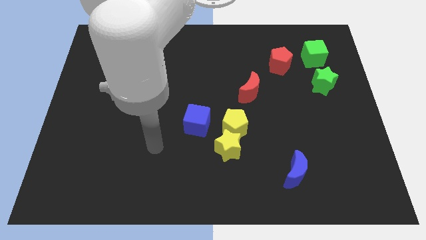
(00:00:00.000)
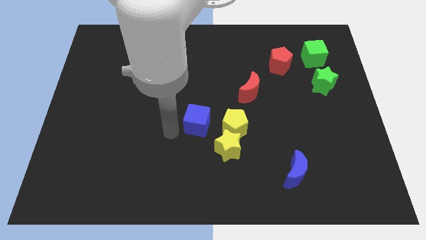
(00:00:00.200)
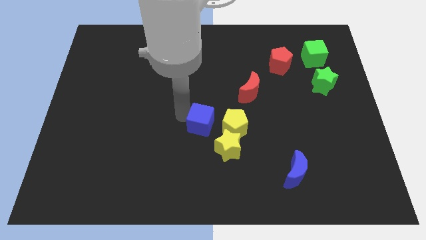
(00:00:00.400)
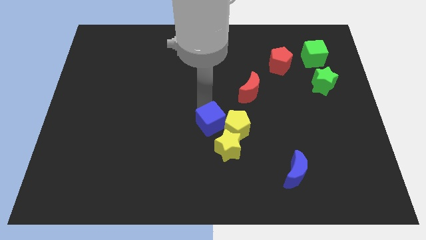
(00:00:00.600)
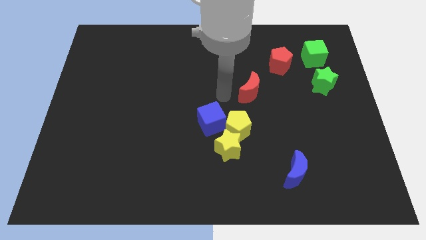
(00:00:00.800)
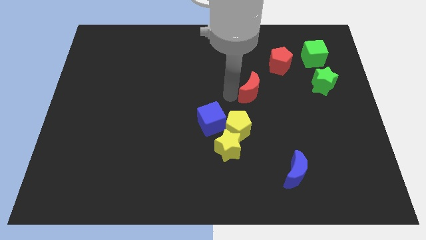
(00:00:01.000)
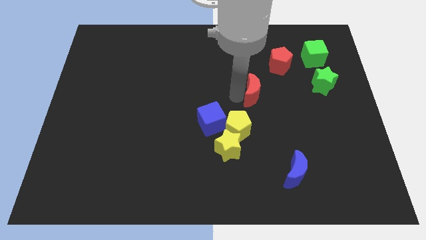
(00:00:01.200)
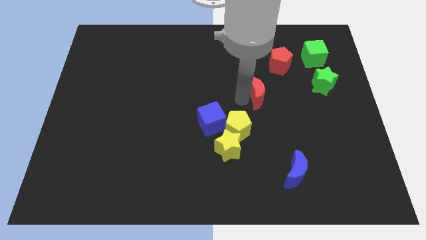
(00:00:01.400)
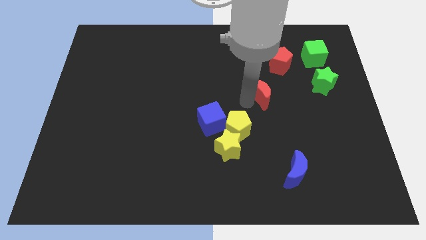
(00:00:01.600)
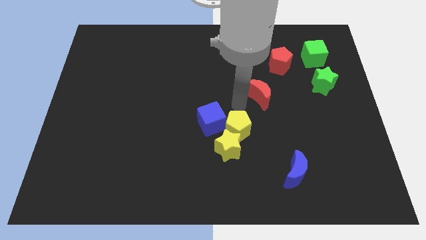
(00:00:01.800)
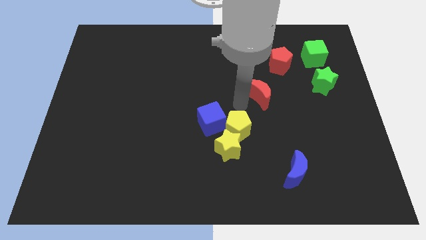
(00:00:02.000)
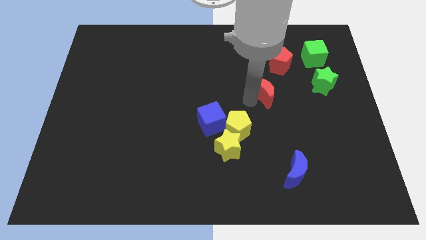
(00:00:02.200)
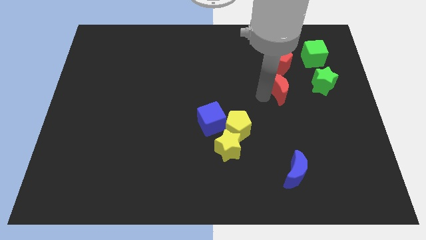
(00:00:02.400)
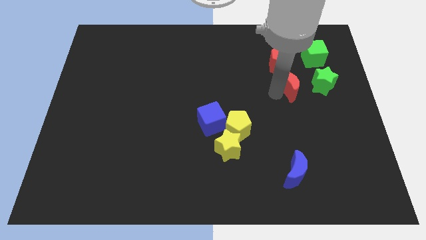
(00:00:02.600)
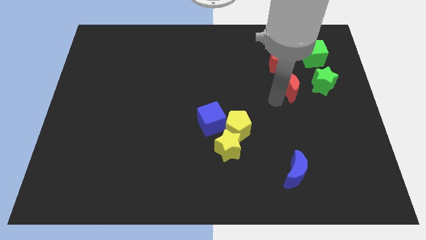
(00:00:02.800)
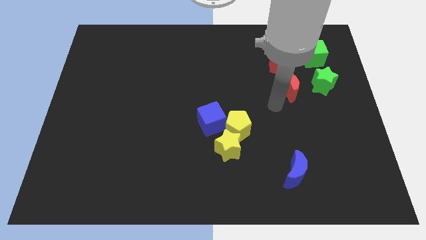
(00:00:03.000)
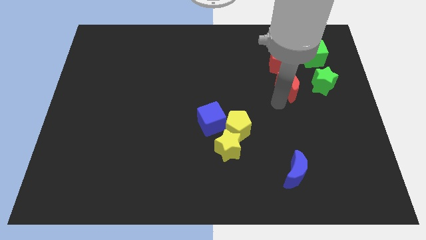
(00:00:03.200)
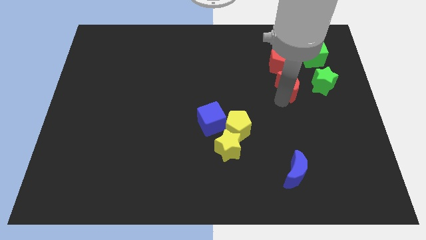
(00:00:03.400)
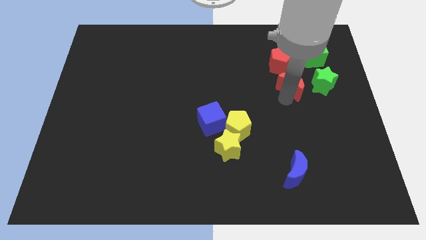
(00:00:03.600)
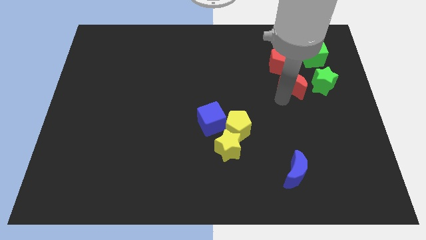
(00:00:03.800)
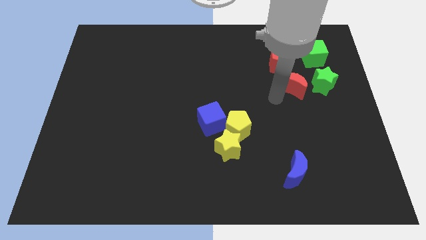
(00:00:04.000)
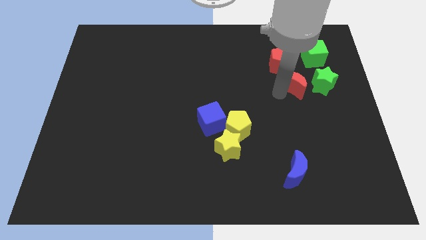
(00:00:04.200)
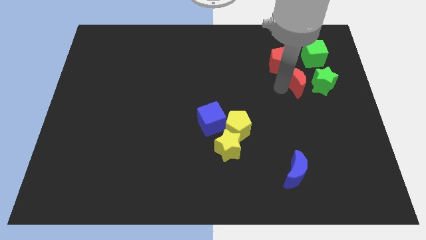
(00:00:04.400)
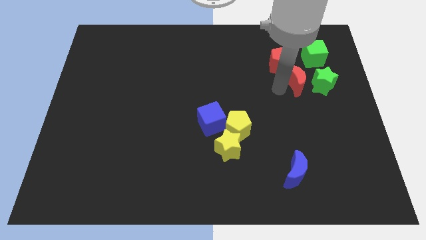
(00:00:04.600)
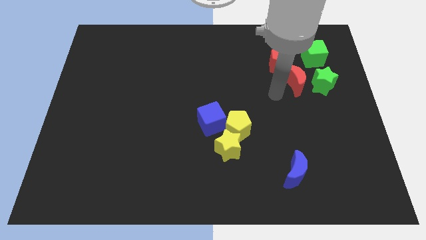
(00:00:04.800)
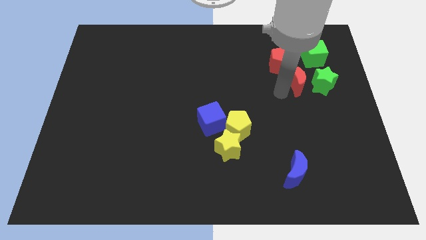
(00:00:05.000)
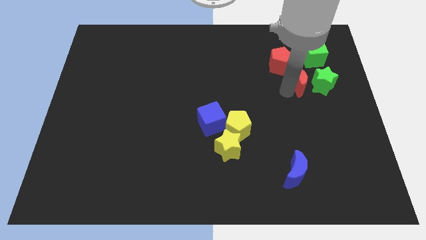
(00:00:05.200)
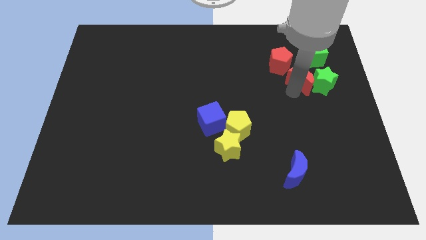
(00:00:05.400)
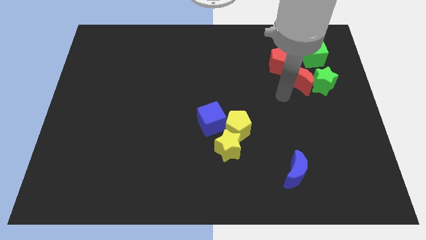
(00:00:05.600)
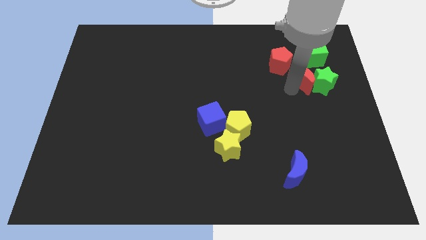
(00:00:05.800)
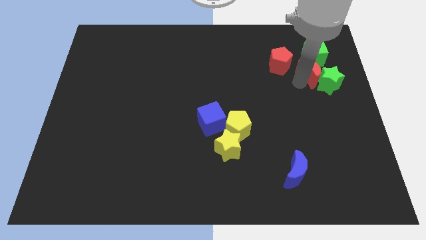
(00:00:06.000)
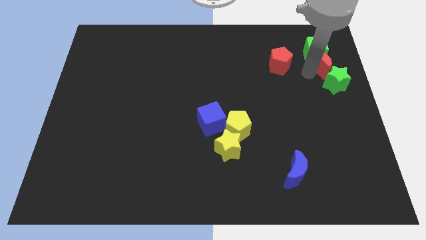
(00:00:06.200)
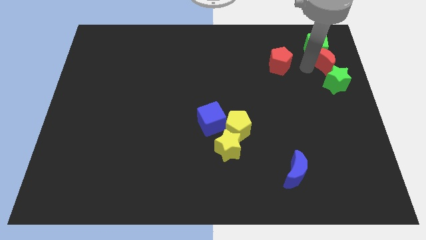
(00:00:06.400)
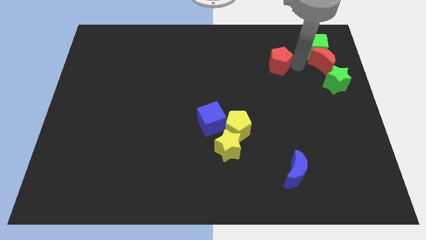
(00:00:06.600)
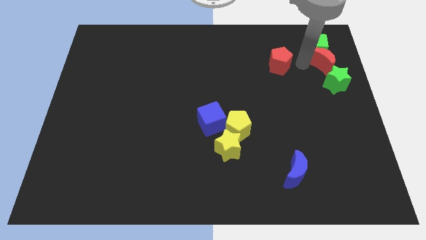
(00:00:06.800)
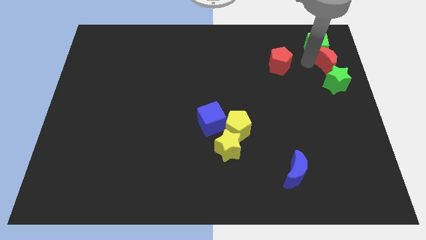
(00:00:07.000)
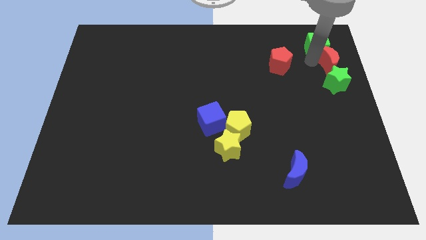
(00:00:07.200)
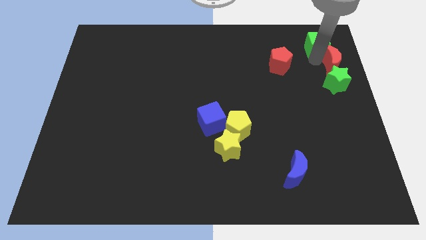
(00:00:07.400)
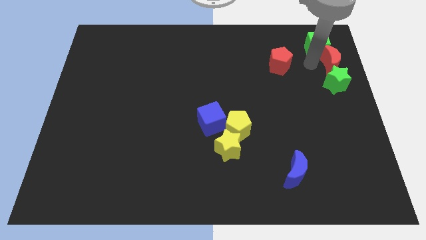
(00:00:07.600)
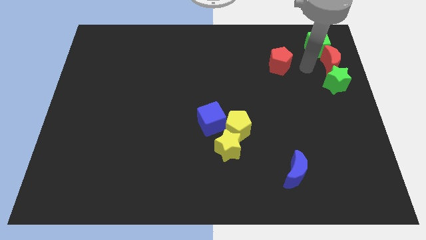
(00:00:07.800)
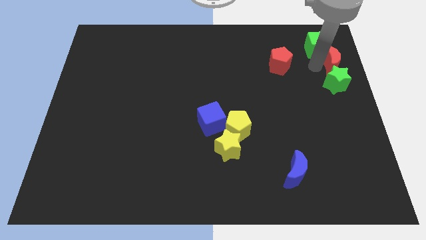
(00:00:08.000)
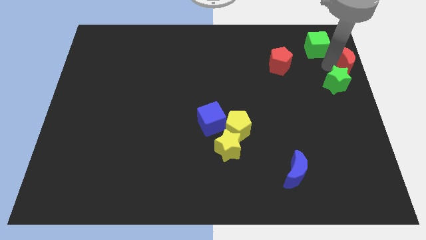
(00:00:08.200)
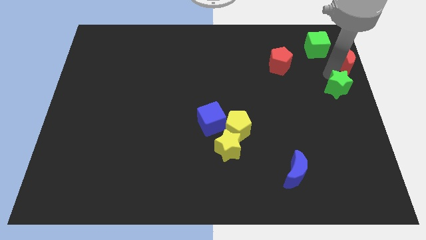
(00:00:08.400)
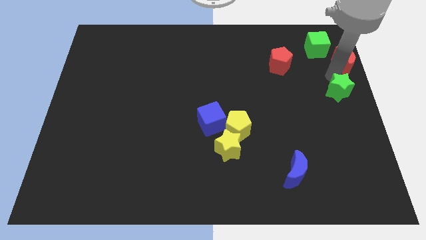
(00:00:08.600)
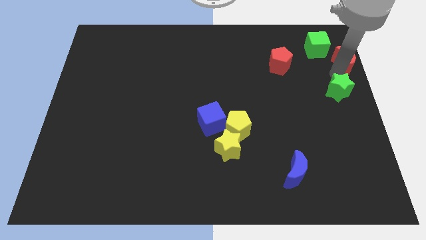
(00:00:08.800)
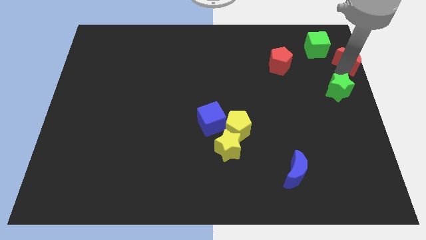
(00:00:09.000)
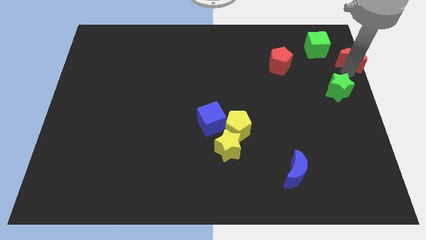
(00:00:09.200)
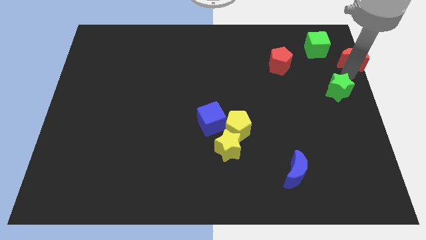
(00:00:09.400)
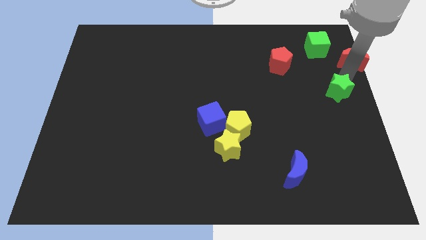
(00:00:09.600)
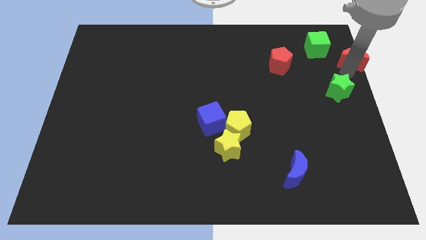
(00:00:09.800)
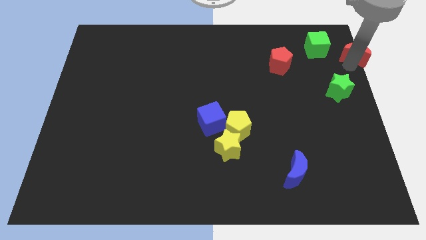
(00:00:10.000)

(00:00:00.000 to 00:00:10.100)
push the red moon to the top right corner

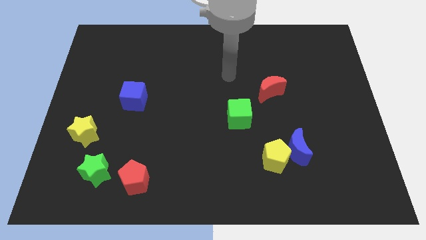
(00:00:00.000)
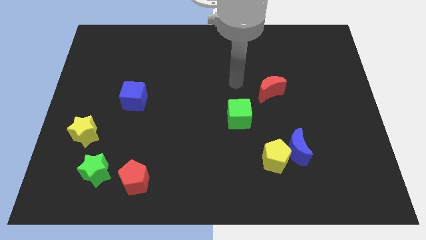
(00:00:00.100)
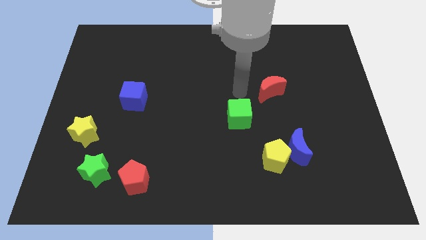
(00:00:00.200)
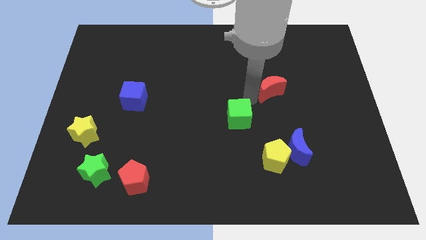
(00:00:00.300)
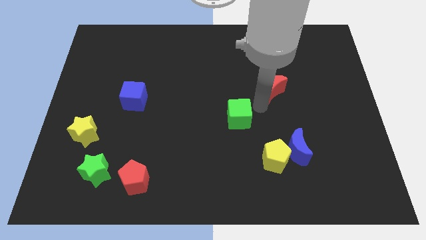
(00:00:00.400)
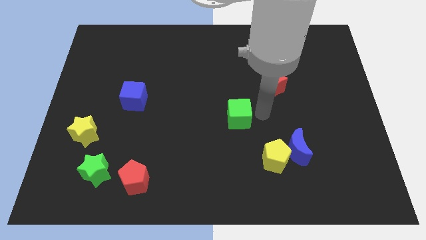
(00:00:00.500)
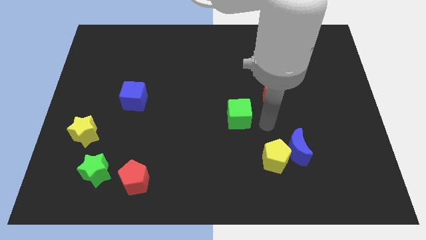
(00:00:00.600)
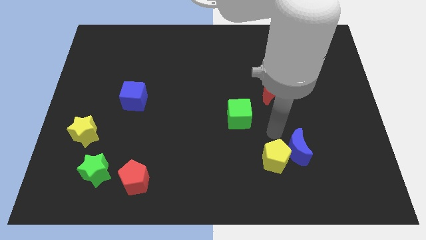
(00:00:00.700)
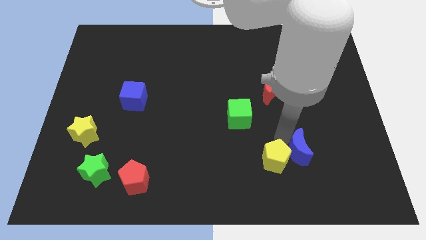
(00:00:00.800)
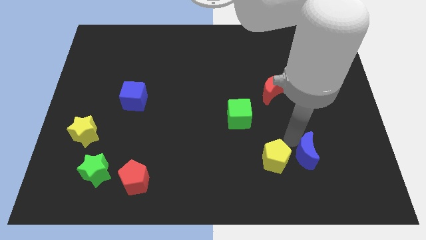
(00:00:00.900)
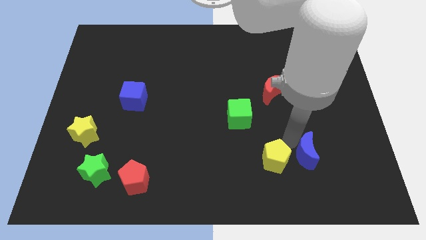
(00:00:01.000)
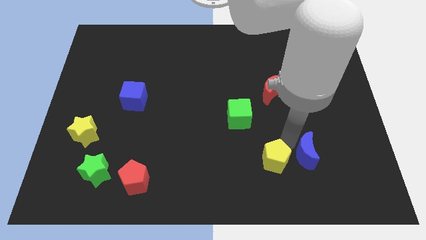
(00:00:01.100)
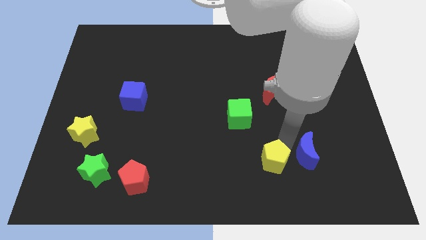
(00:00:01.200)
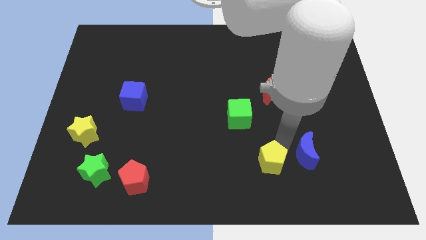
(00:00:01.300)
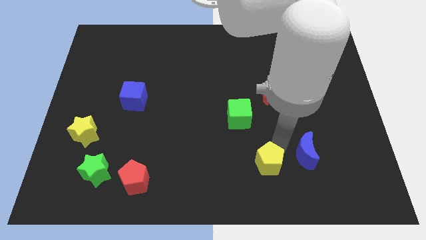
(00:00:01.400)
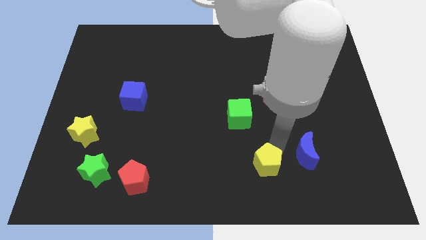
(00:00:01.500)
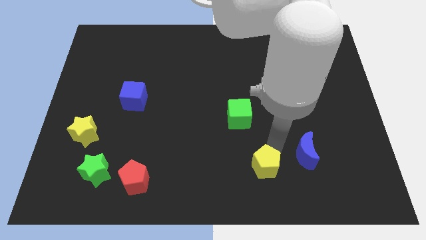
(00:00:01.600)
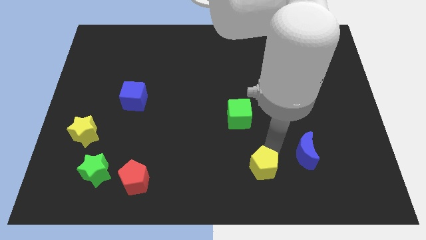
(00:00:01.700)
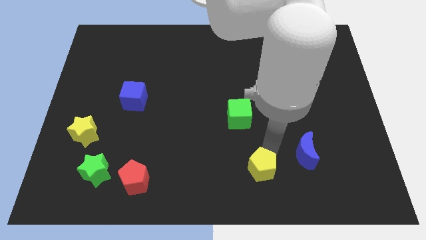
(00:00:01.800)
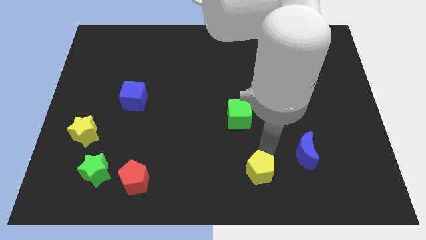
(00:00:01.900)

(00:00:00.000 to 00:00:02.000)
push the yellow pentagon to the bottom side
